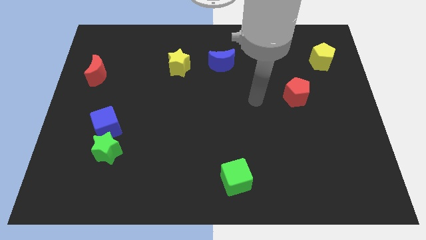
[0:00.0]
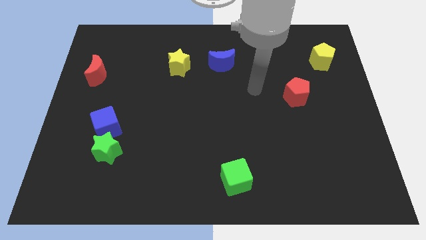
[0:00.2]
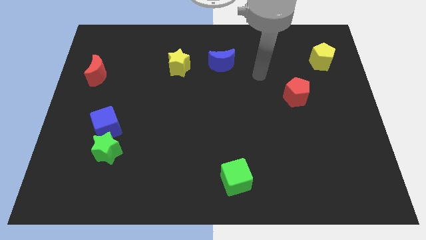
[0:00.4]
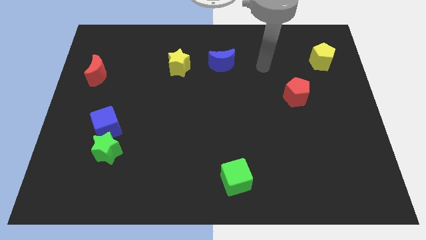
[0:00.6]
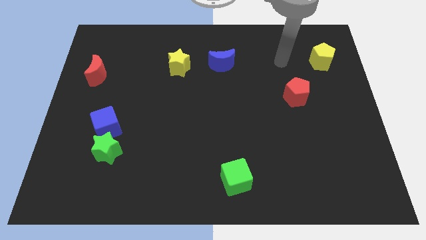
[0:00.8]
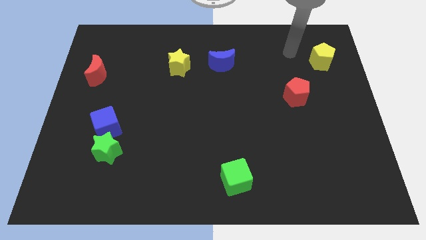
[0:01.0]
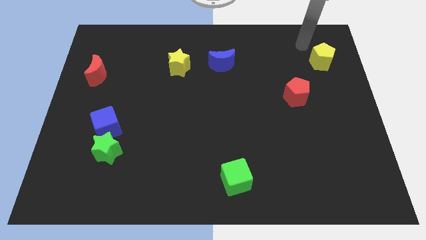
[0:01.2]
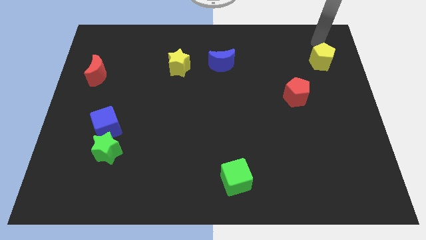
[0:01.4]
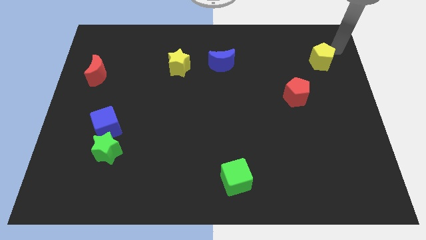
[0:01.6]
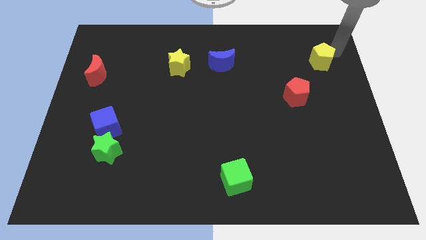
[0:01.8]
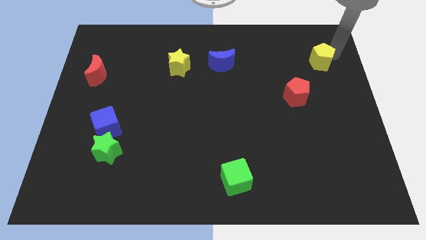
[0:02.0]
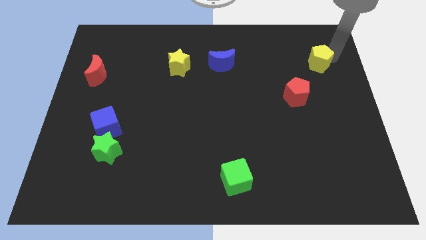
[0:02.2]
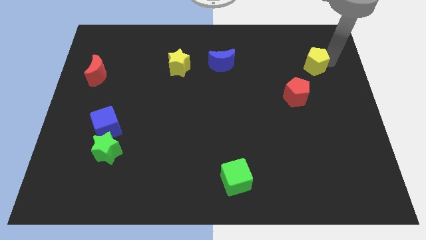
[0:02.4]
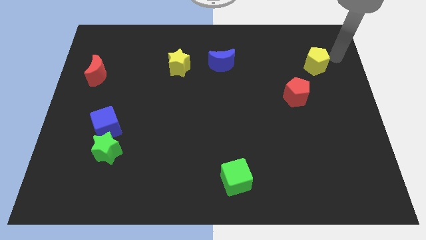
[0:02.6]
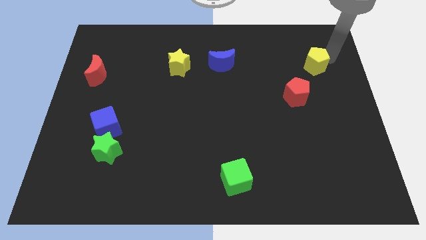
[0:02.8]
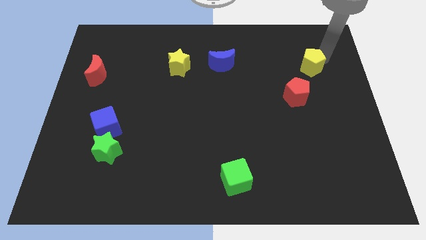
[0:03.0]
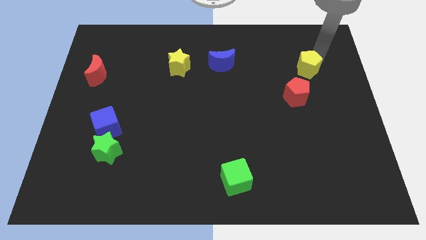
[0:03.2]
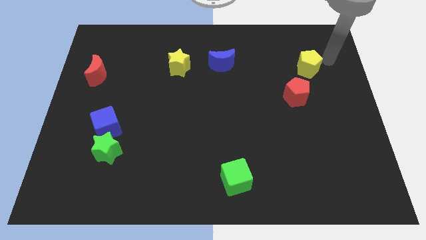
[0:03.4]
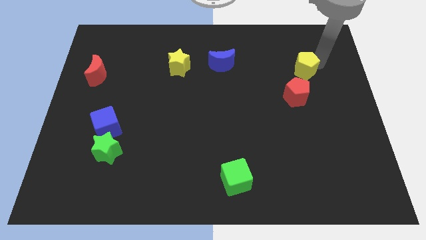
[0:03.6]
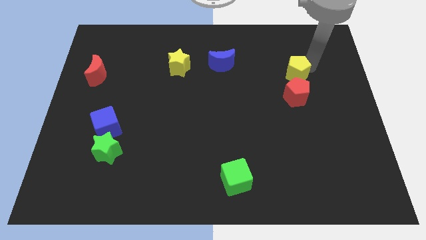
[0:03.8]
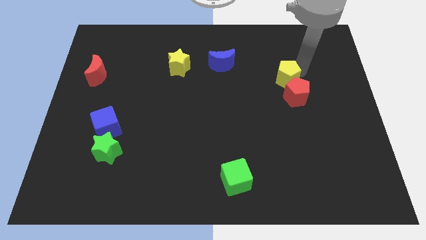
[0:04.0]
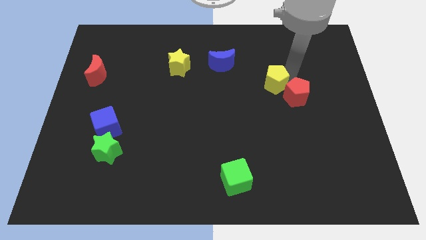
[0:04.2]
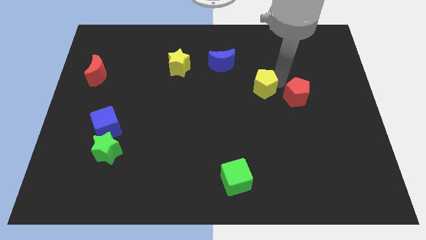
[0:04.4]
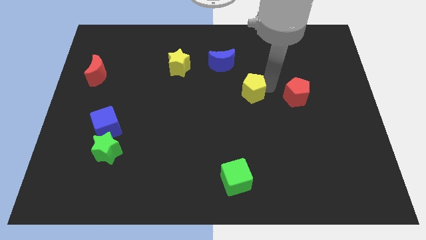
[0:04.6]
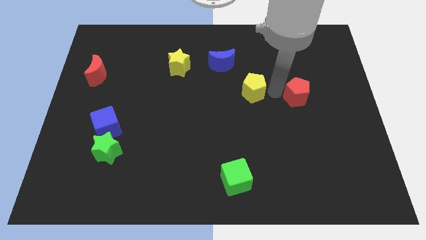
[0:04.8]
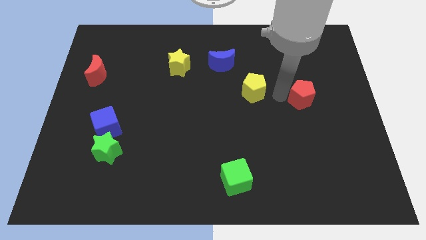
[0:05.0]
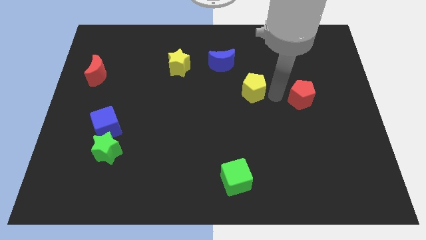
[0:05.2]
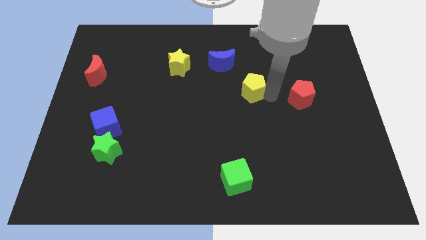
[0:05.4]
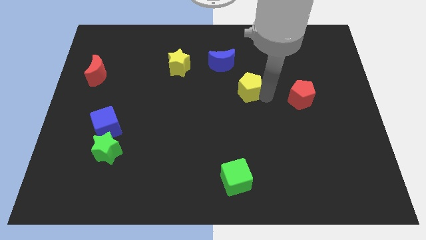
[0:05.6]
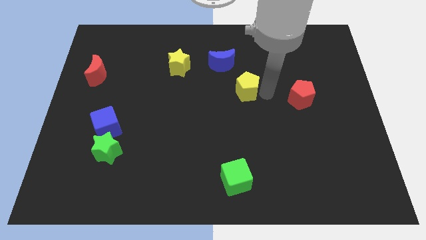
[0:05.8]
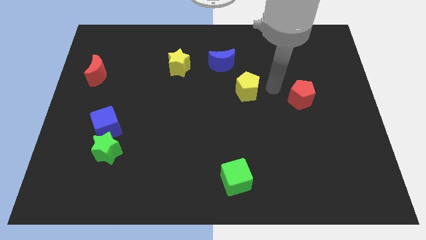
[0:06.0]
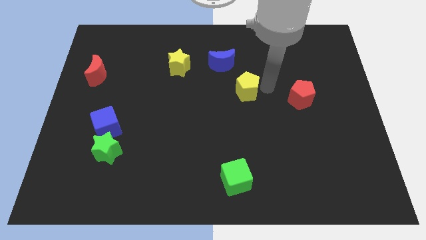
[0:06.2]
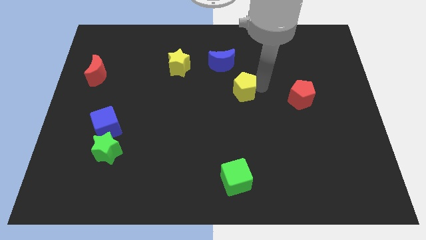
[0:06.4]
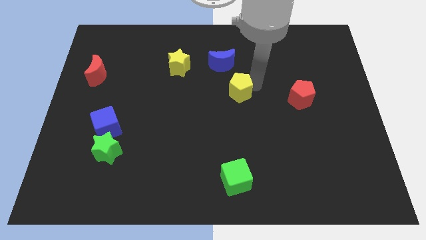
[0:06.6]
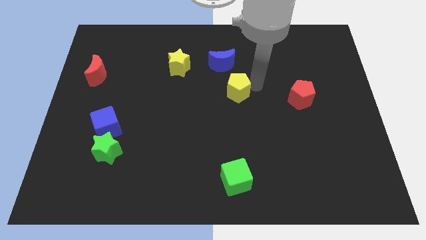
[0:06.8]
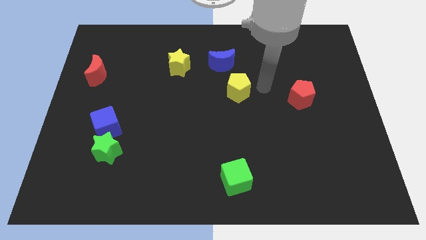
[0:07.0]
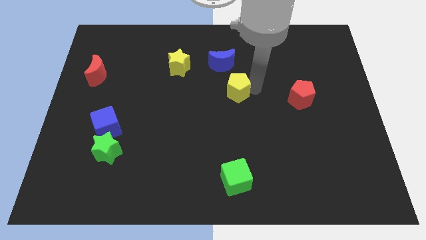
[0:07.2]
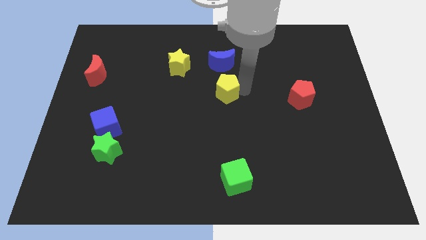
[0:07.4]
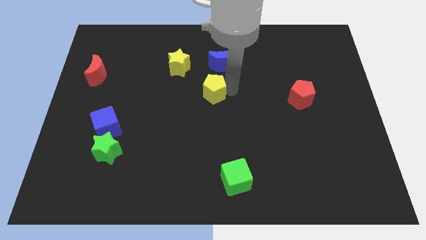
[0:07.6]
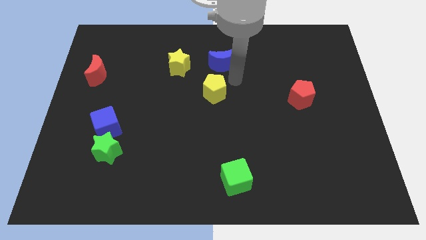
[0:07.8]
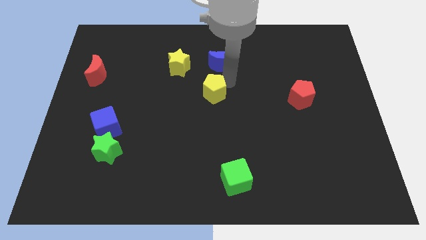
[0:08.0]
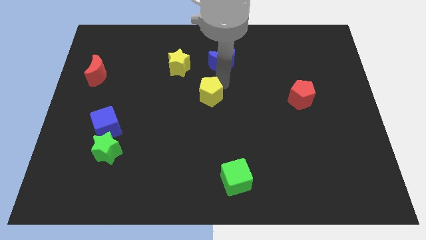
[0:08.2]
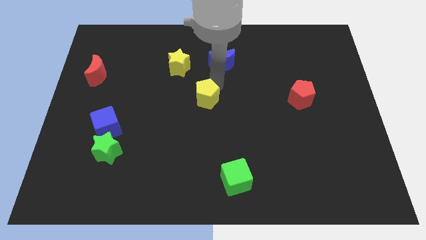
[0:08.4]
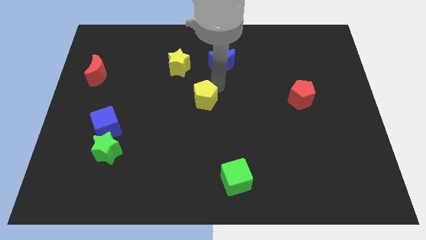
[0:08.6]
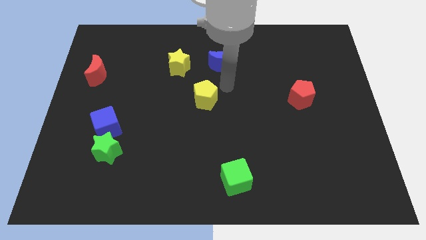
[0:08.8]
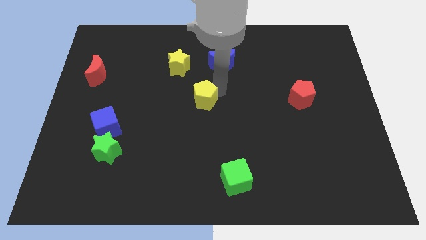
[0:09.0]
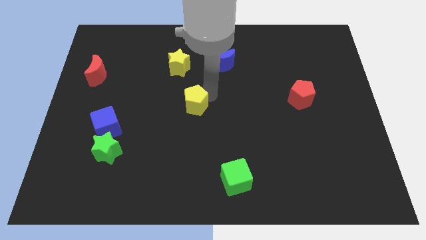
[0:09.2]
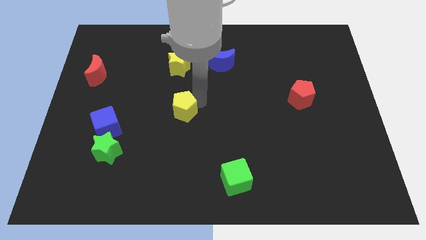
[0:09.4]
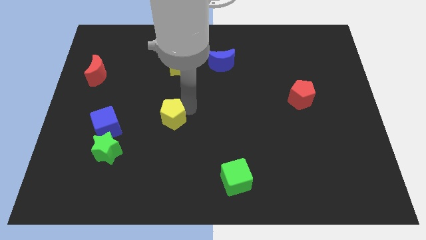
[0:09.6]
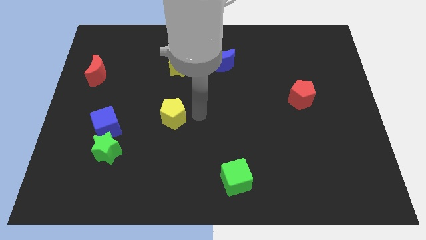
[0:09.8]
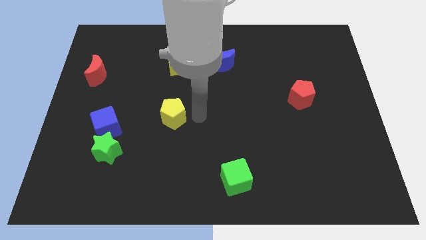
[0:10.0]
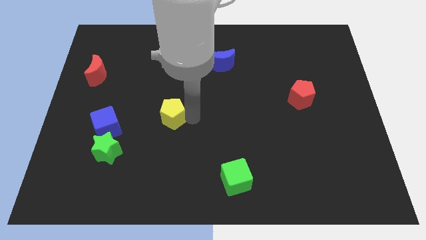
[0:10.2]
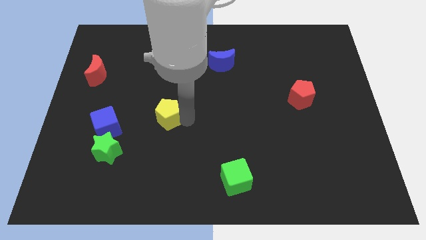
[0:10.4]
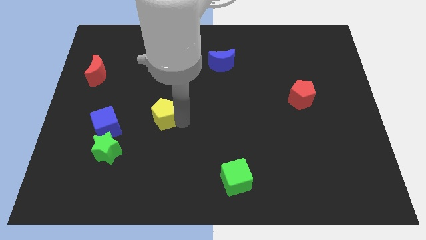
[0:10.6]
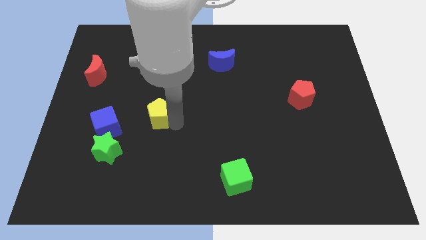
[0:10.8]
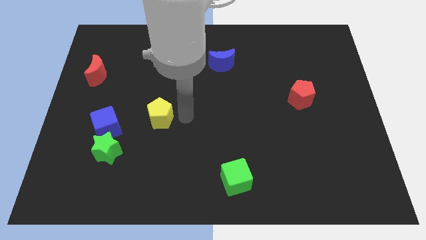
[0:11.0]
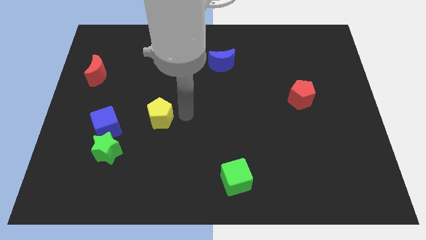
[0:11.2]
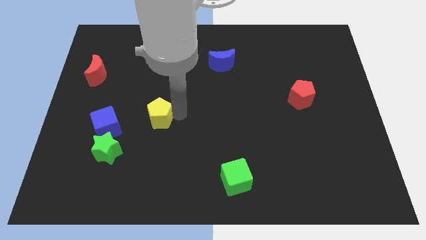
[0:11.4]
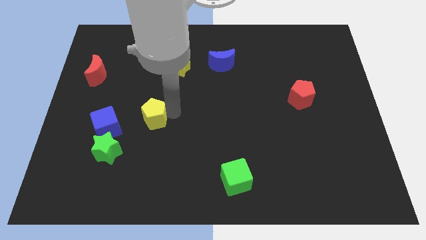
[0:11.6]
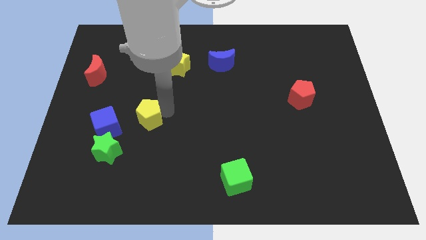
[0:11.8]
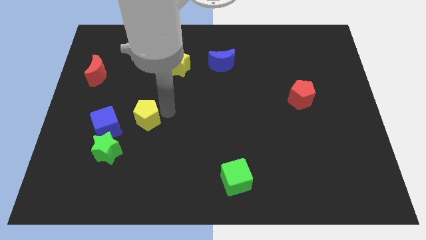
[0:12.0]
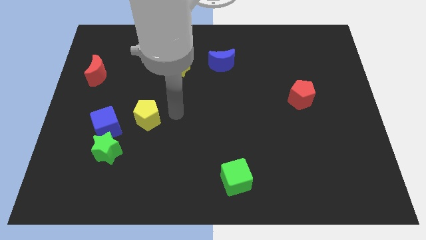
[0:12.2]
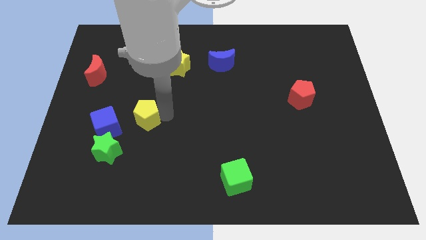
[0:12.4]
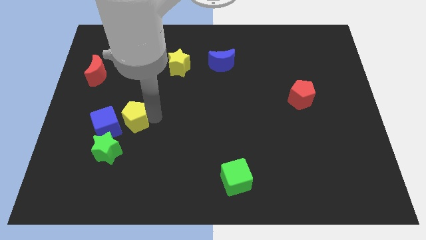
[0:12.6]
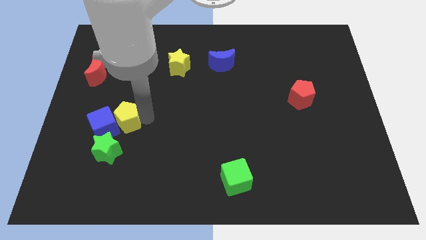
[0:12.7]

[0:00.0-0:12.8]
push the yellow pentagon to the blue cube
